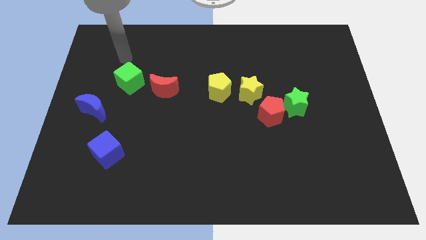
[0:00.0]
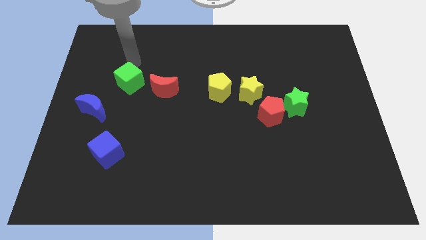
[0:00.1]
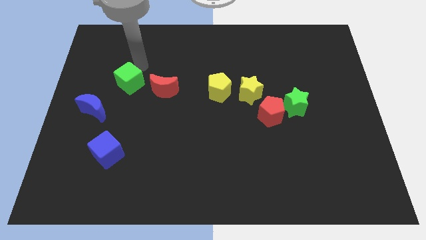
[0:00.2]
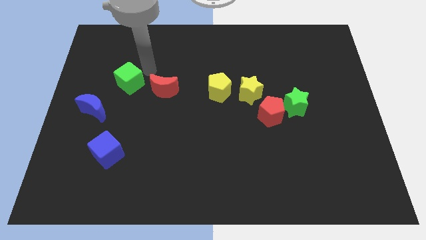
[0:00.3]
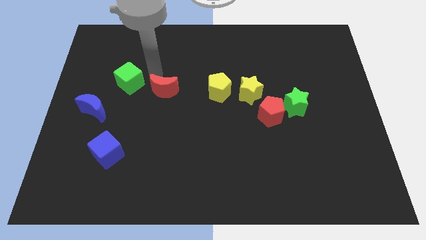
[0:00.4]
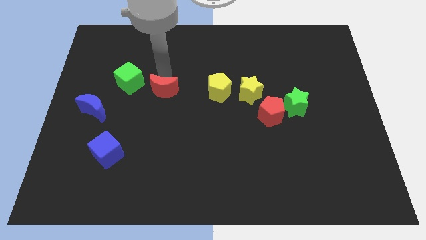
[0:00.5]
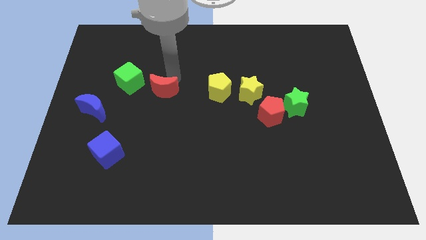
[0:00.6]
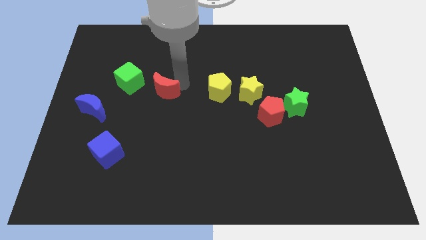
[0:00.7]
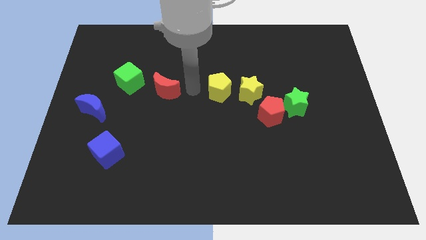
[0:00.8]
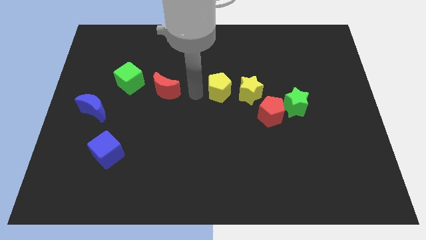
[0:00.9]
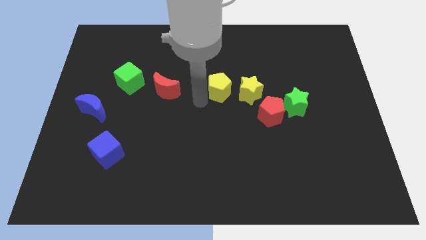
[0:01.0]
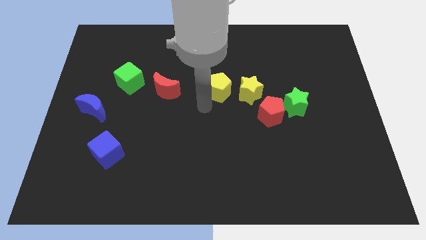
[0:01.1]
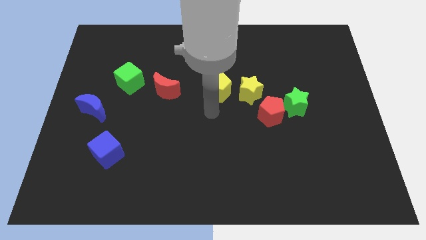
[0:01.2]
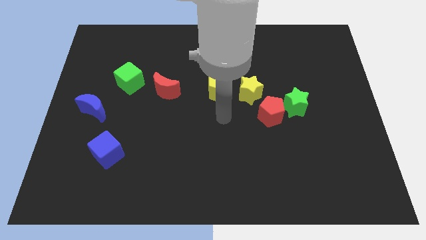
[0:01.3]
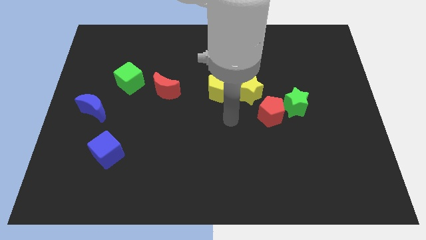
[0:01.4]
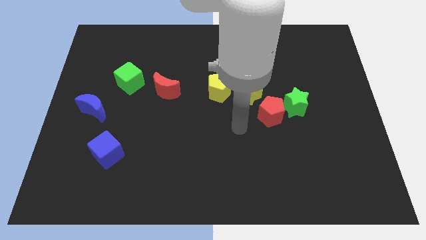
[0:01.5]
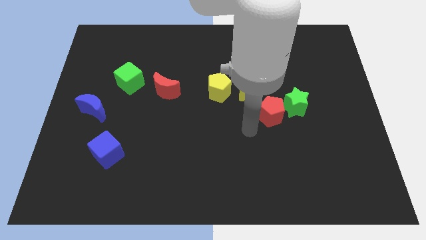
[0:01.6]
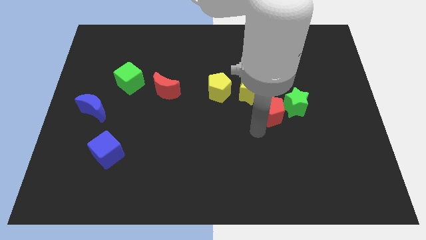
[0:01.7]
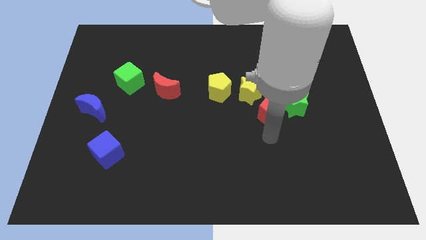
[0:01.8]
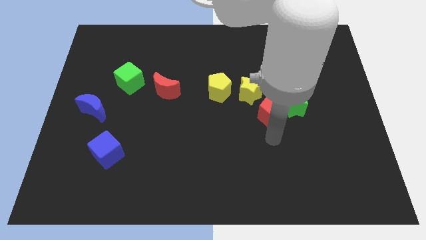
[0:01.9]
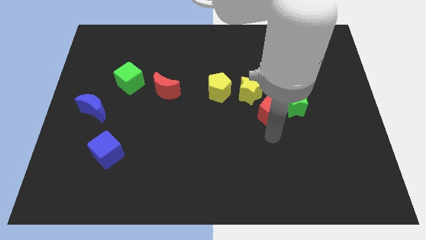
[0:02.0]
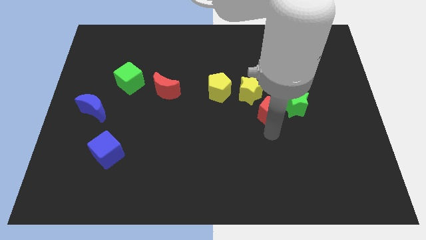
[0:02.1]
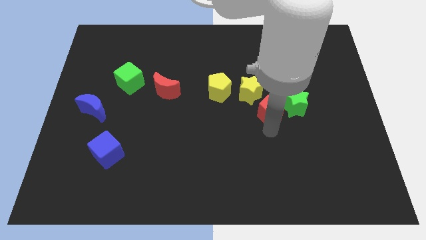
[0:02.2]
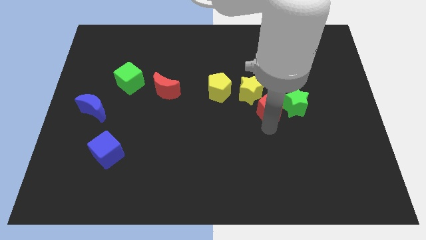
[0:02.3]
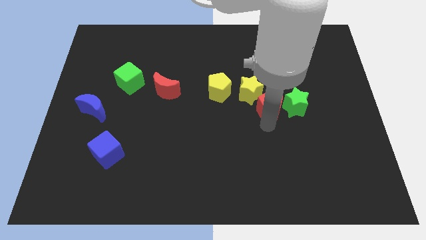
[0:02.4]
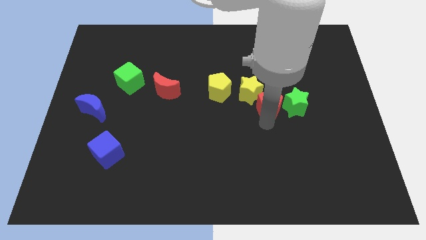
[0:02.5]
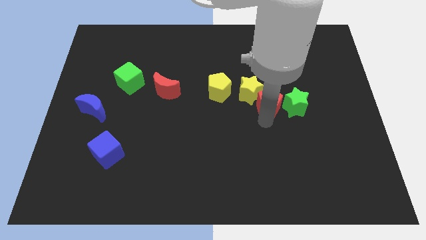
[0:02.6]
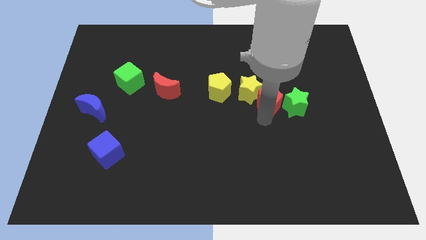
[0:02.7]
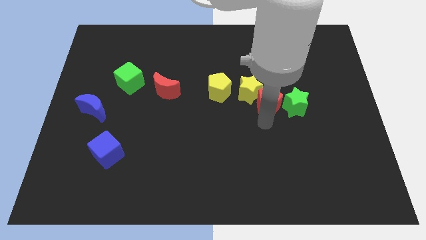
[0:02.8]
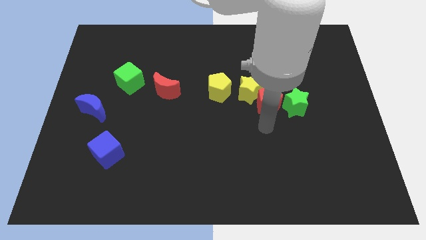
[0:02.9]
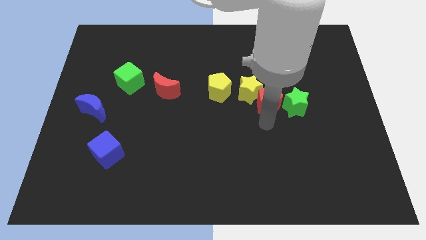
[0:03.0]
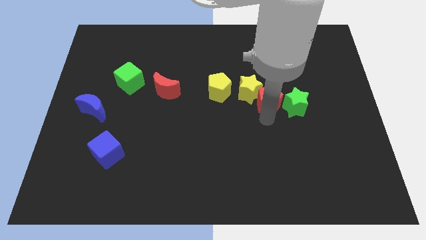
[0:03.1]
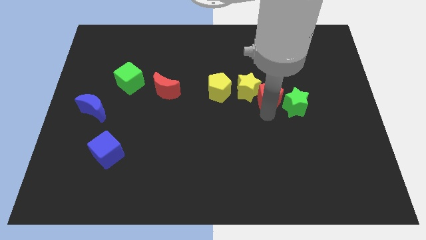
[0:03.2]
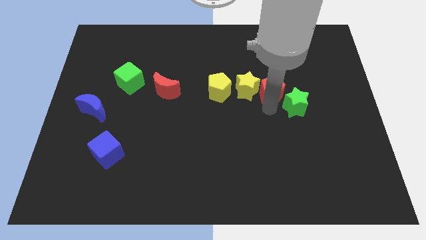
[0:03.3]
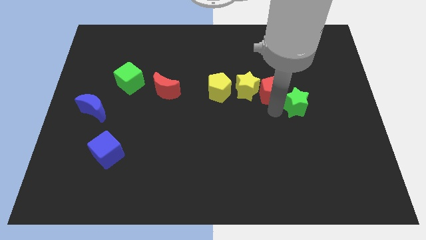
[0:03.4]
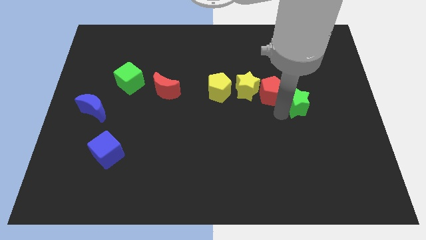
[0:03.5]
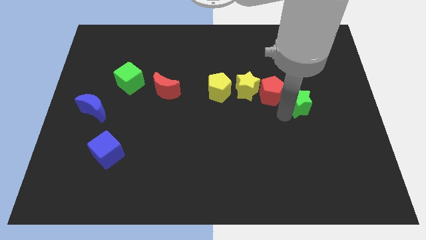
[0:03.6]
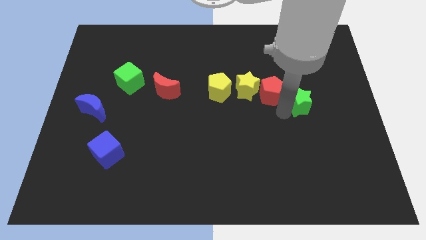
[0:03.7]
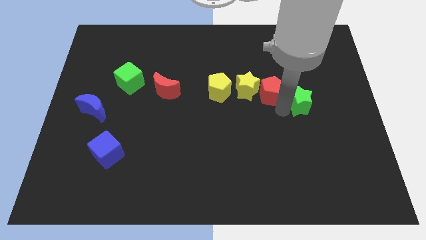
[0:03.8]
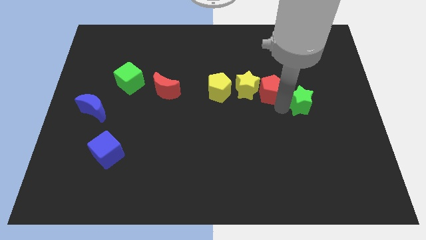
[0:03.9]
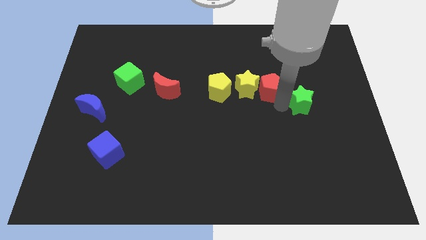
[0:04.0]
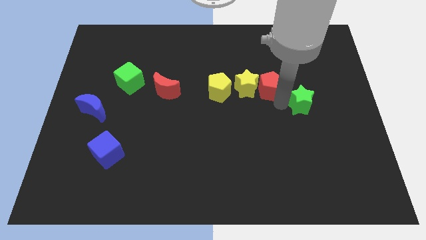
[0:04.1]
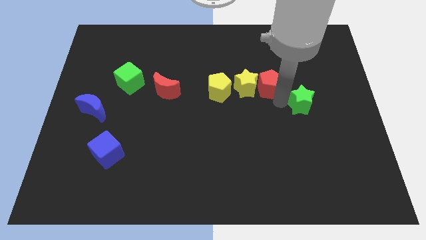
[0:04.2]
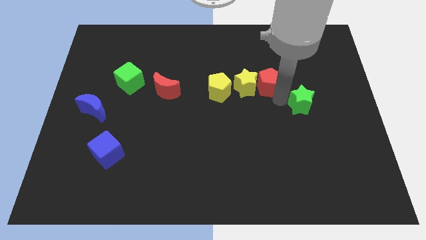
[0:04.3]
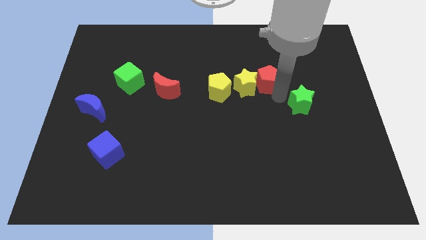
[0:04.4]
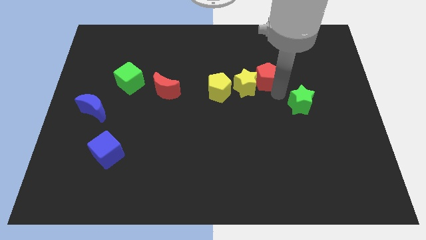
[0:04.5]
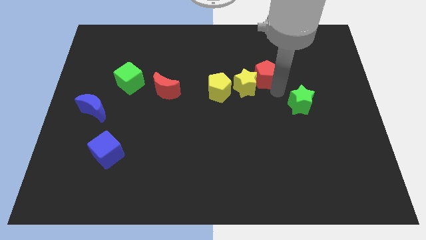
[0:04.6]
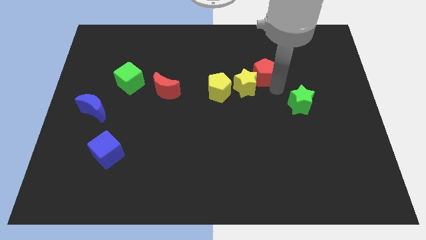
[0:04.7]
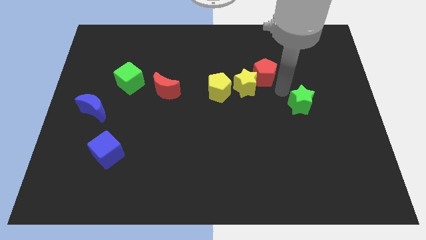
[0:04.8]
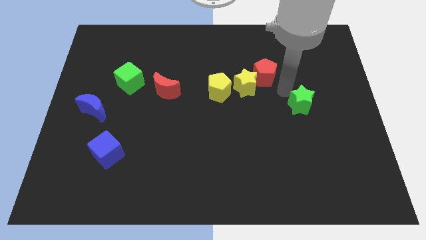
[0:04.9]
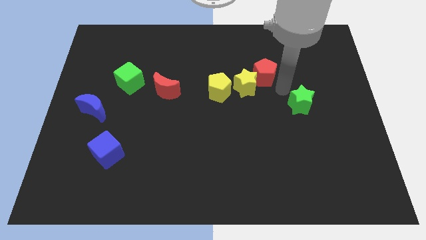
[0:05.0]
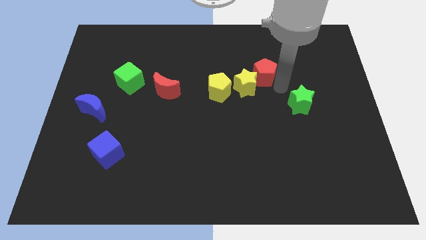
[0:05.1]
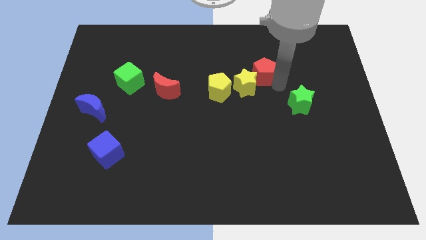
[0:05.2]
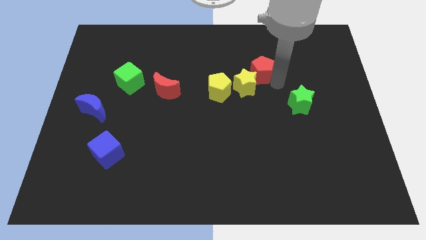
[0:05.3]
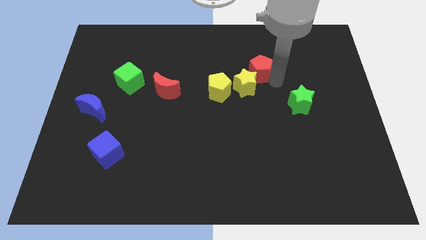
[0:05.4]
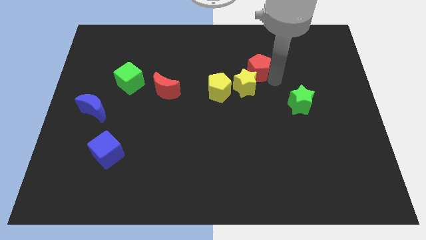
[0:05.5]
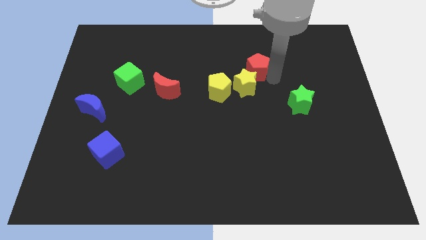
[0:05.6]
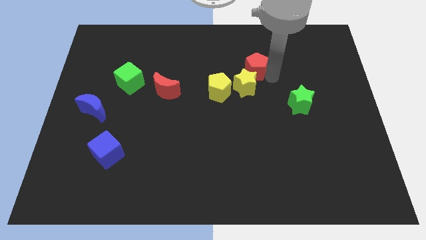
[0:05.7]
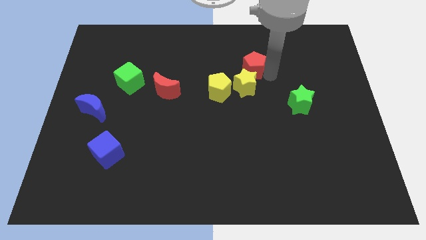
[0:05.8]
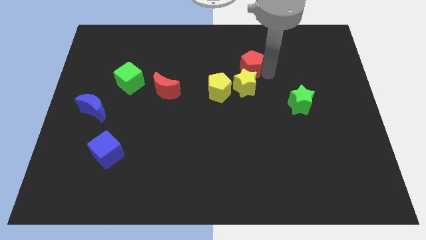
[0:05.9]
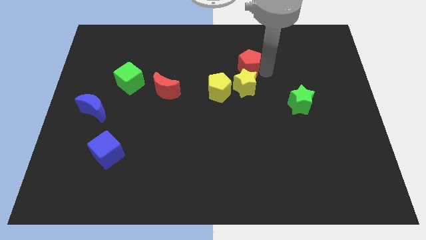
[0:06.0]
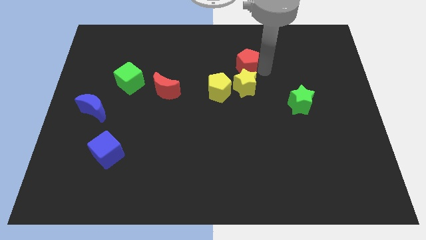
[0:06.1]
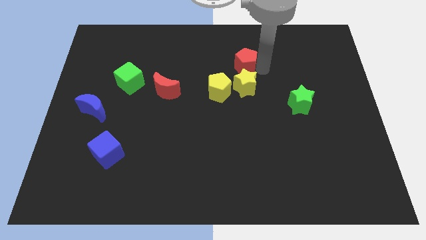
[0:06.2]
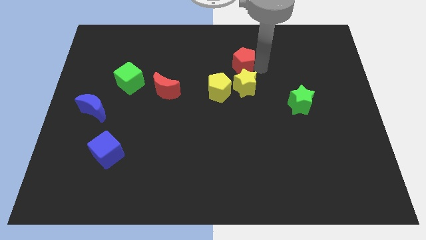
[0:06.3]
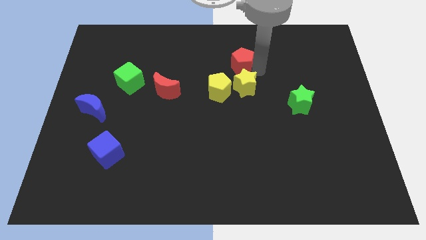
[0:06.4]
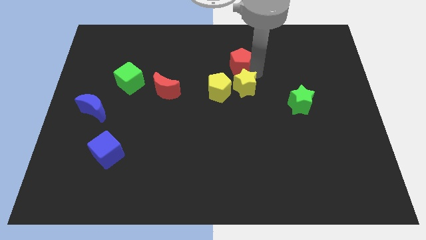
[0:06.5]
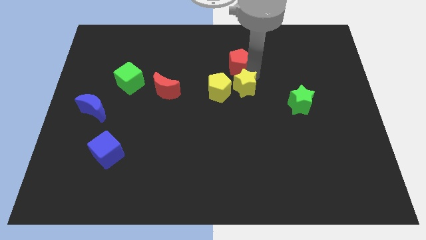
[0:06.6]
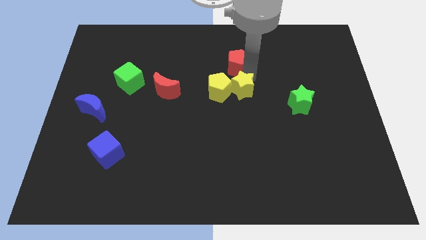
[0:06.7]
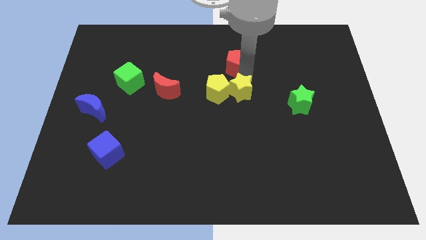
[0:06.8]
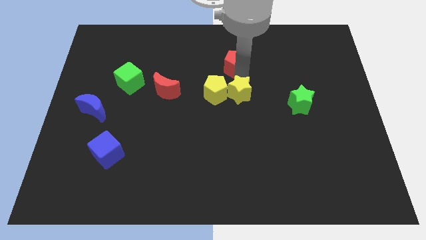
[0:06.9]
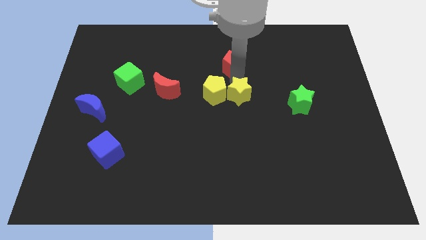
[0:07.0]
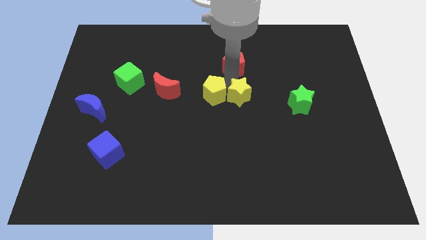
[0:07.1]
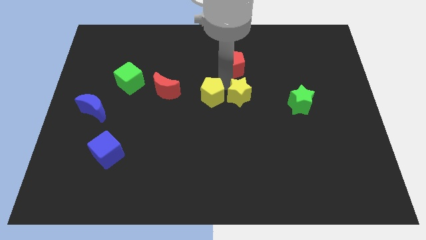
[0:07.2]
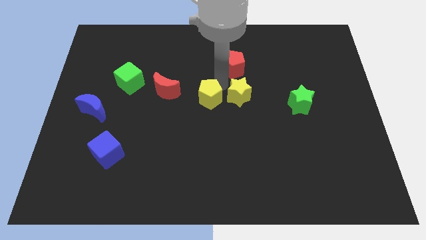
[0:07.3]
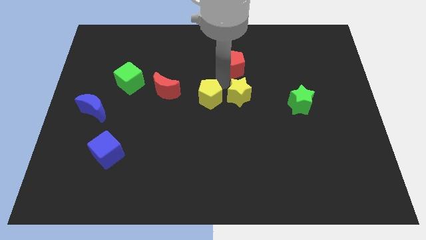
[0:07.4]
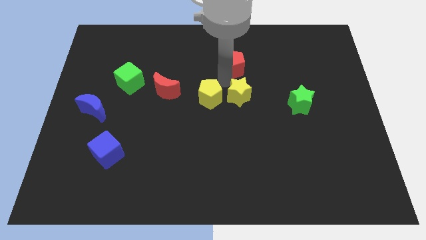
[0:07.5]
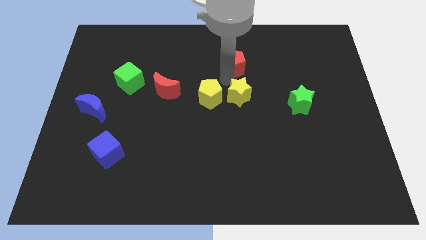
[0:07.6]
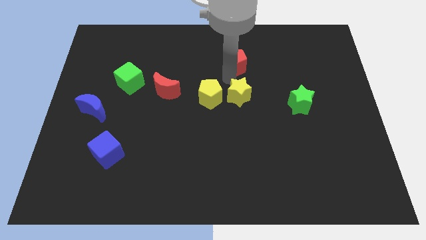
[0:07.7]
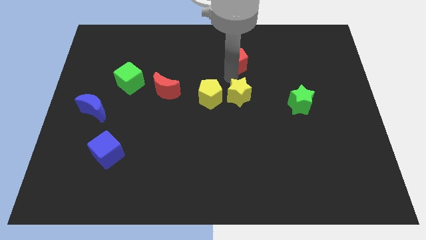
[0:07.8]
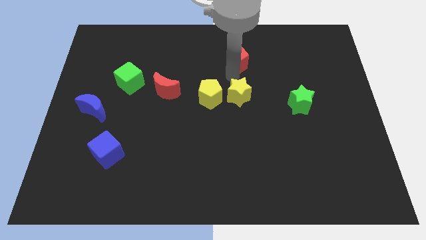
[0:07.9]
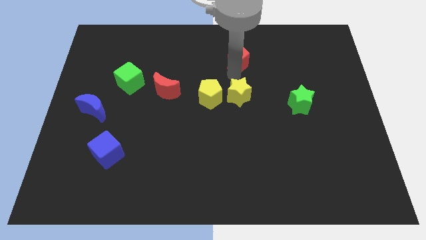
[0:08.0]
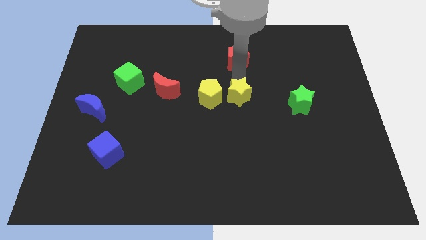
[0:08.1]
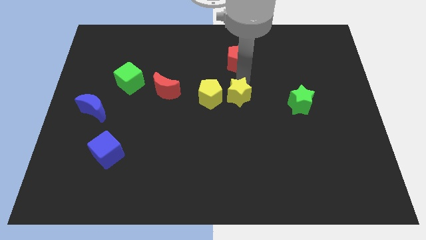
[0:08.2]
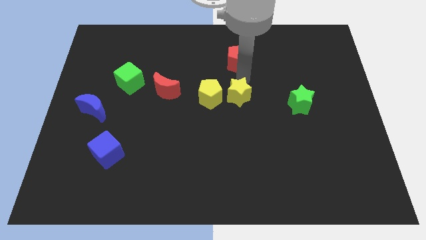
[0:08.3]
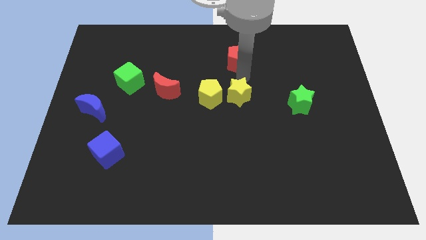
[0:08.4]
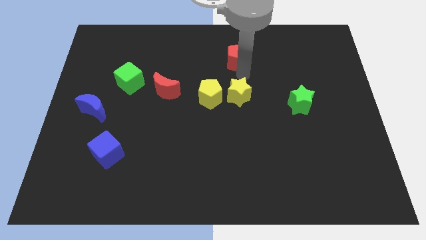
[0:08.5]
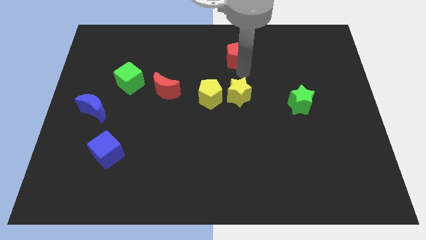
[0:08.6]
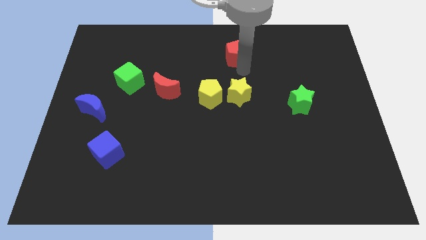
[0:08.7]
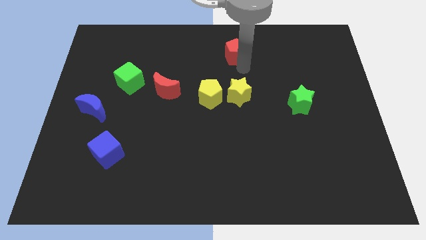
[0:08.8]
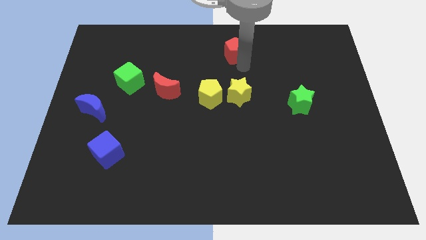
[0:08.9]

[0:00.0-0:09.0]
push the red pentagon to the top
